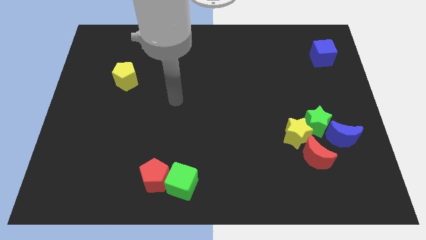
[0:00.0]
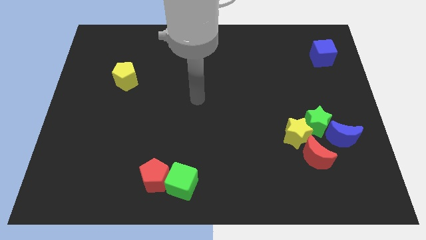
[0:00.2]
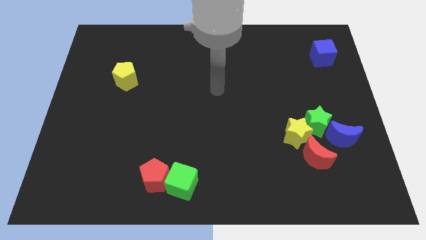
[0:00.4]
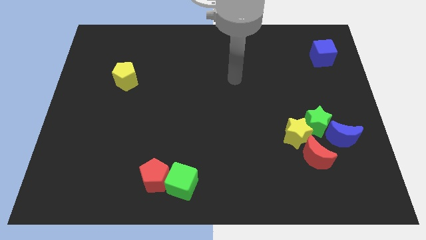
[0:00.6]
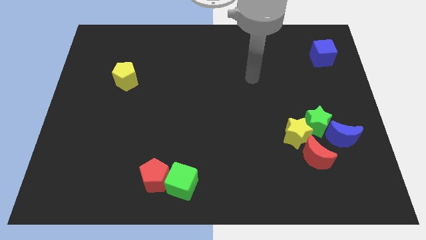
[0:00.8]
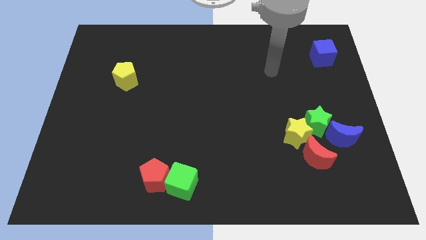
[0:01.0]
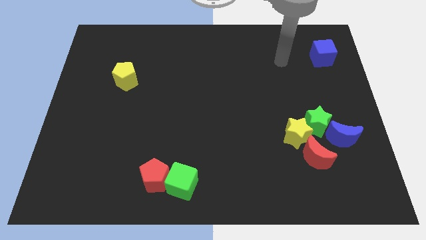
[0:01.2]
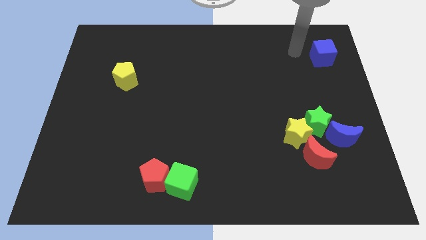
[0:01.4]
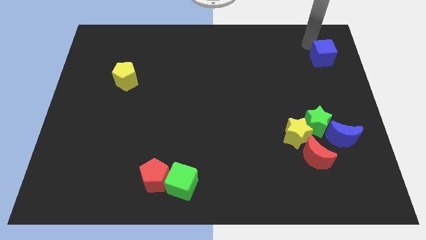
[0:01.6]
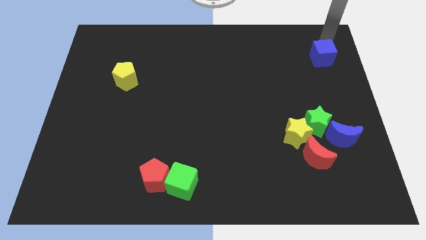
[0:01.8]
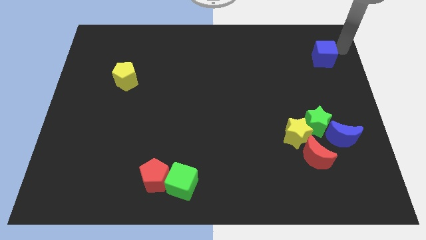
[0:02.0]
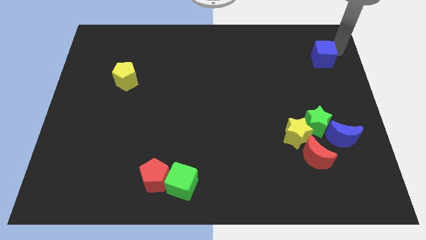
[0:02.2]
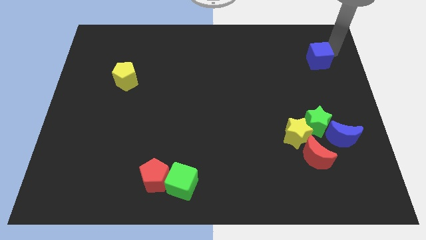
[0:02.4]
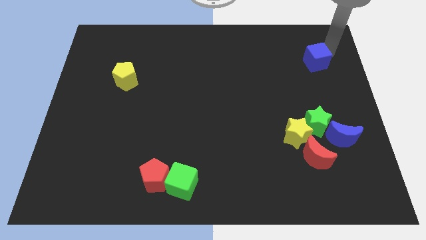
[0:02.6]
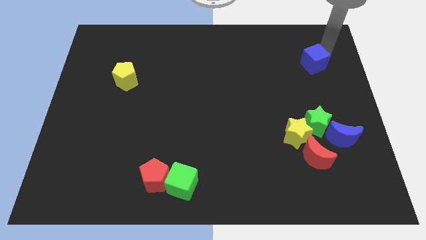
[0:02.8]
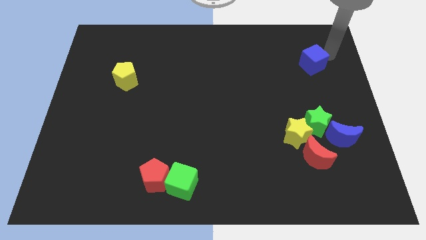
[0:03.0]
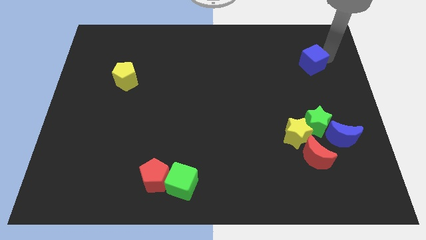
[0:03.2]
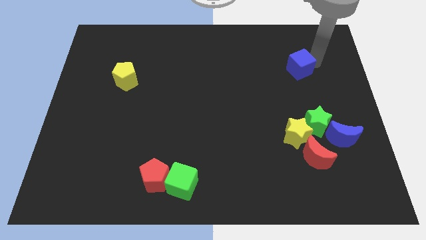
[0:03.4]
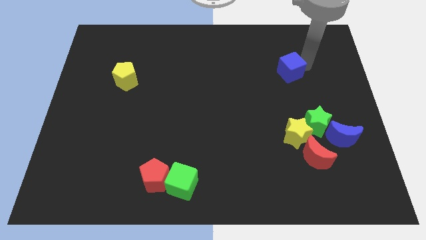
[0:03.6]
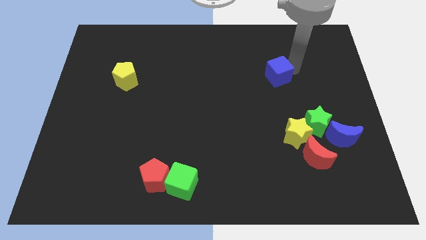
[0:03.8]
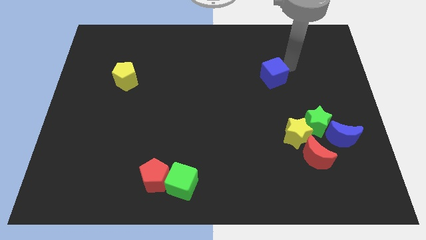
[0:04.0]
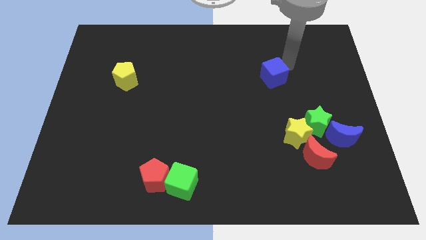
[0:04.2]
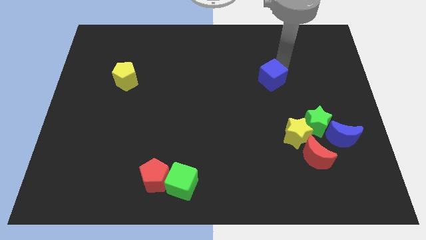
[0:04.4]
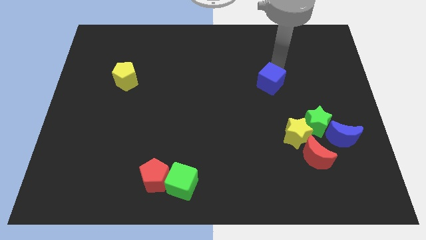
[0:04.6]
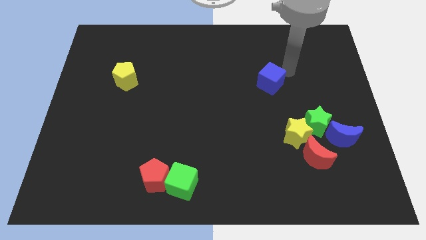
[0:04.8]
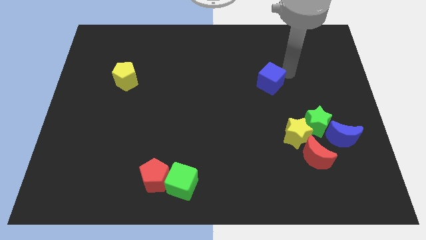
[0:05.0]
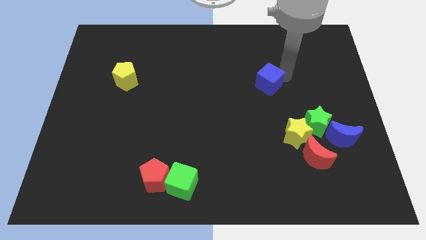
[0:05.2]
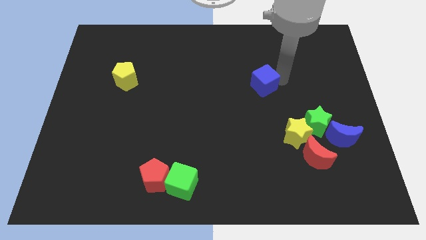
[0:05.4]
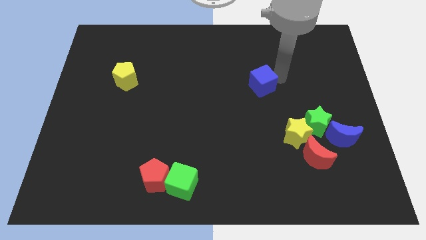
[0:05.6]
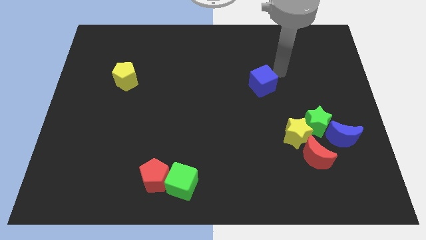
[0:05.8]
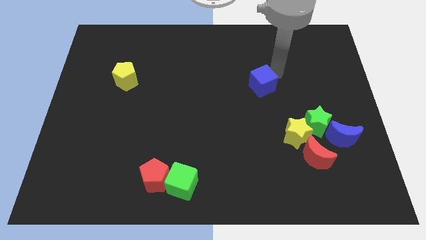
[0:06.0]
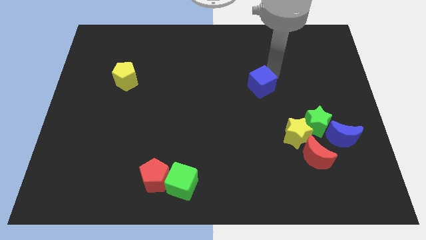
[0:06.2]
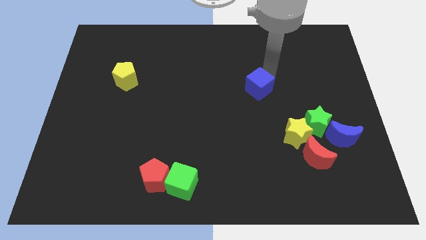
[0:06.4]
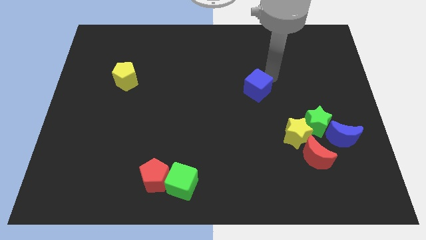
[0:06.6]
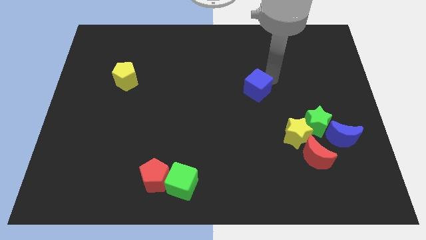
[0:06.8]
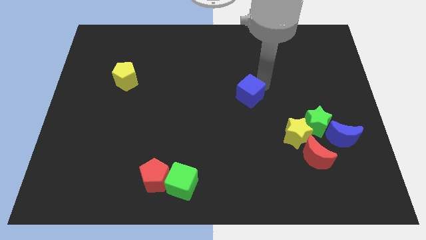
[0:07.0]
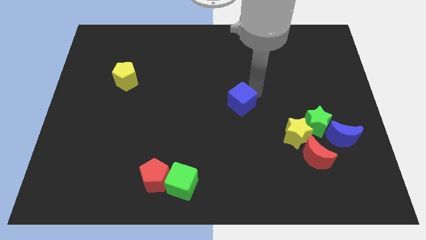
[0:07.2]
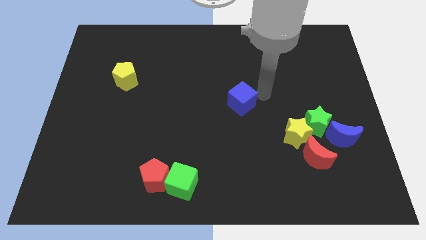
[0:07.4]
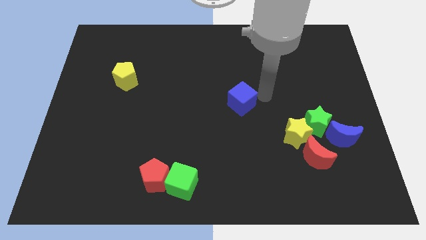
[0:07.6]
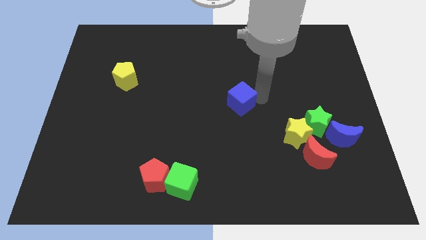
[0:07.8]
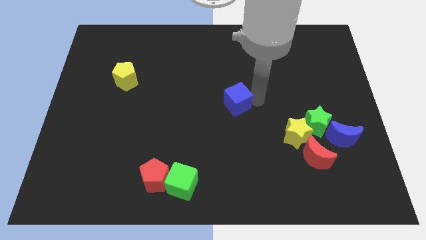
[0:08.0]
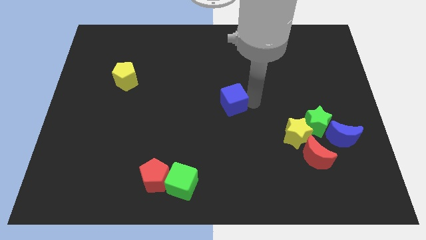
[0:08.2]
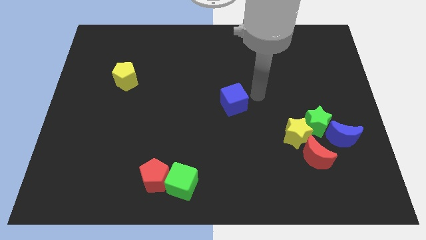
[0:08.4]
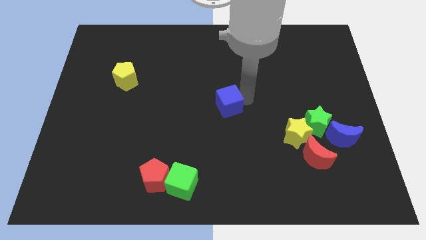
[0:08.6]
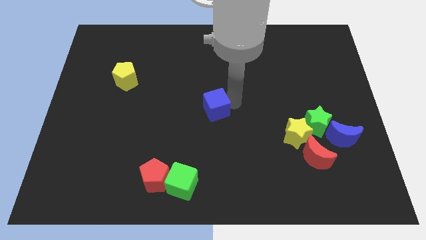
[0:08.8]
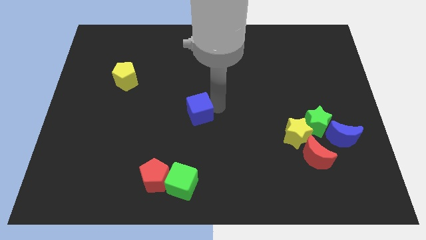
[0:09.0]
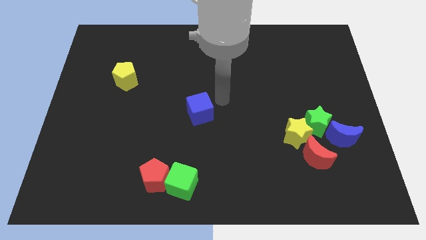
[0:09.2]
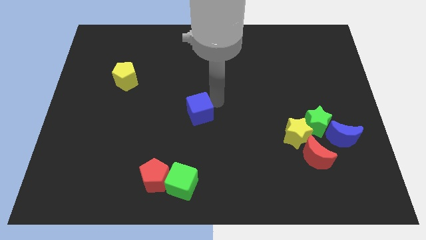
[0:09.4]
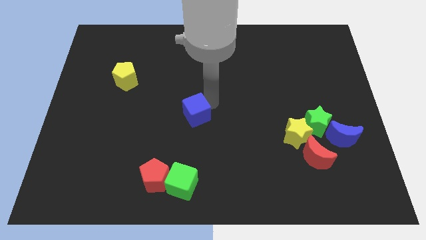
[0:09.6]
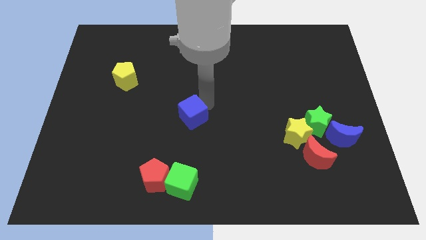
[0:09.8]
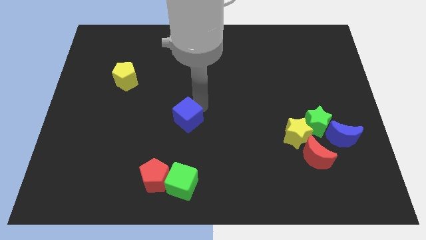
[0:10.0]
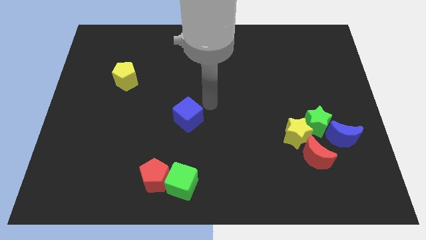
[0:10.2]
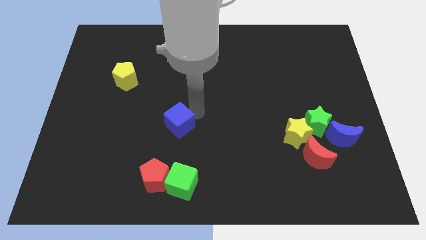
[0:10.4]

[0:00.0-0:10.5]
push the blue cube above the red pentagon

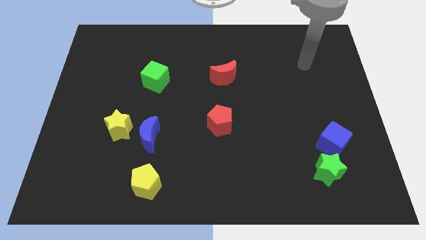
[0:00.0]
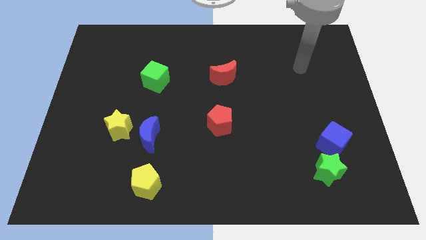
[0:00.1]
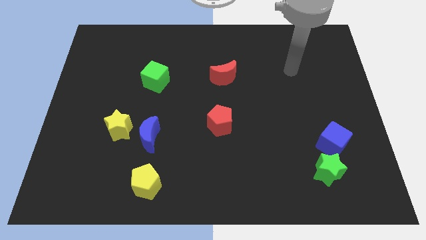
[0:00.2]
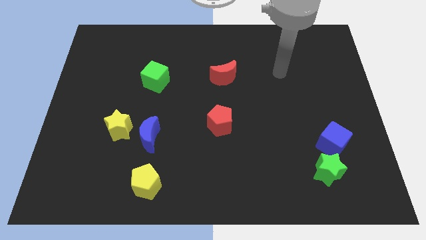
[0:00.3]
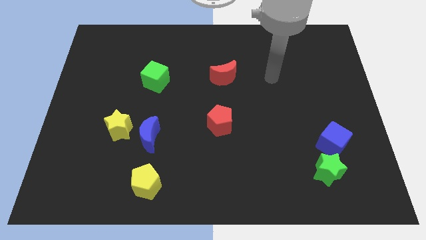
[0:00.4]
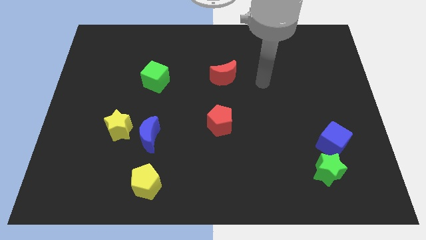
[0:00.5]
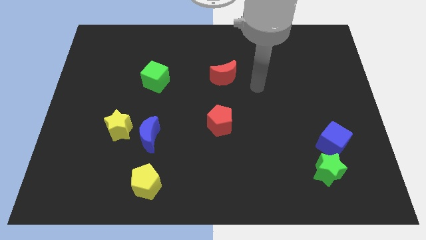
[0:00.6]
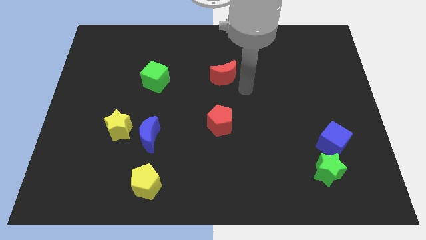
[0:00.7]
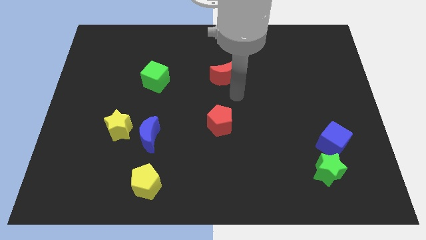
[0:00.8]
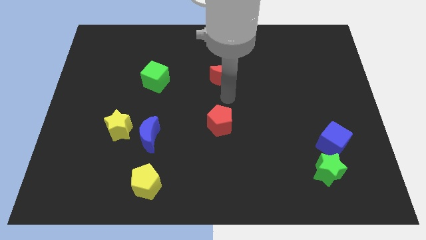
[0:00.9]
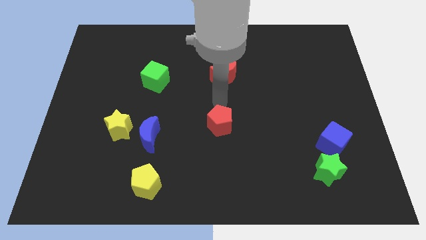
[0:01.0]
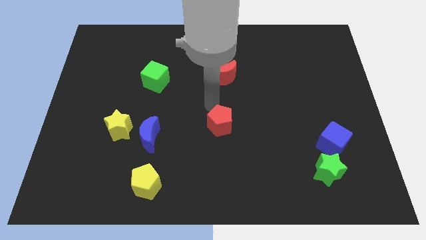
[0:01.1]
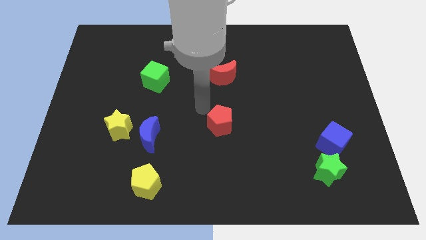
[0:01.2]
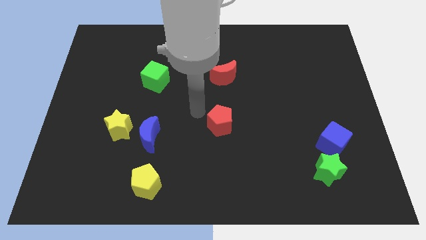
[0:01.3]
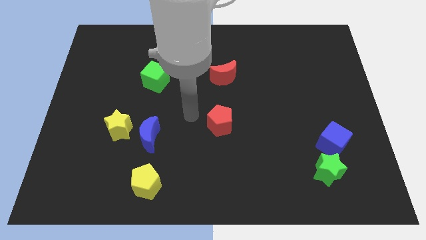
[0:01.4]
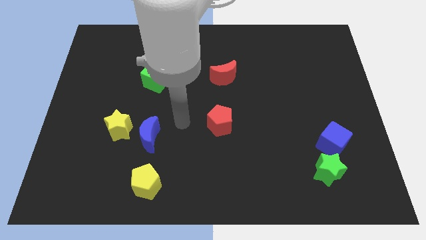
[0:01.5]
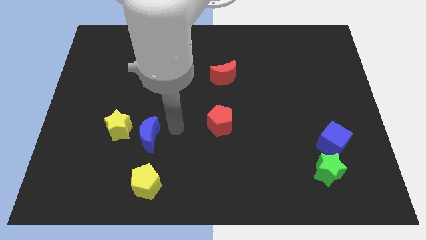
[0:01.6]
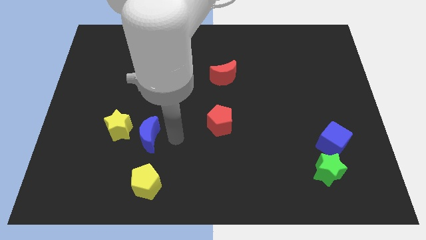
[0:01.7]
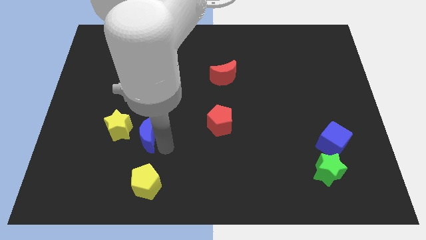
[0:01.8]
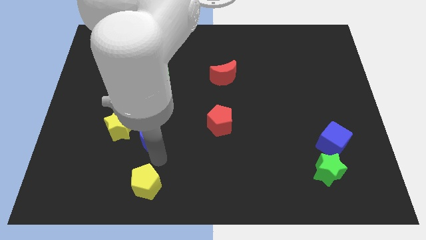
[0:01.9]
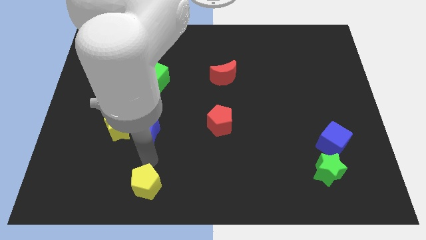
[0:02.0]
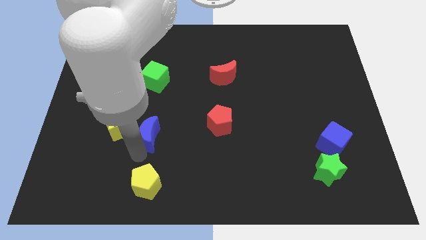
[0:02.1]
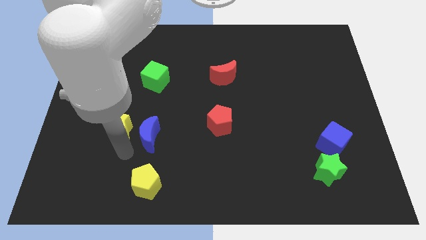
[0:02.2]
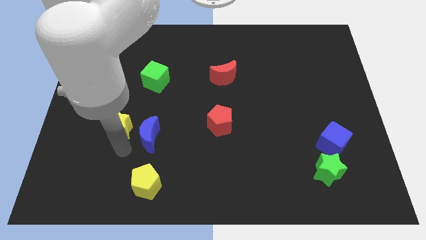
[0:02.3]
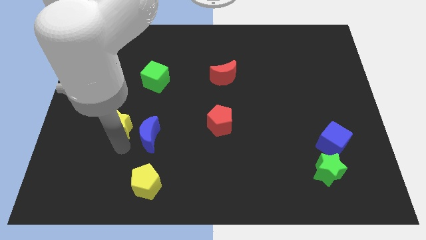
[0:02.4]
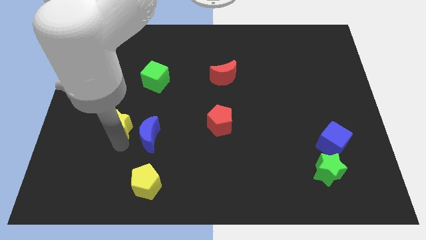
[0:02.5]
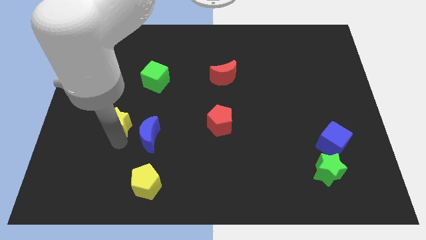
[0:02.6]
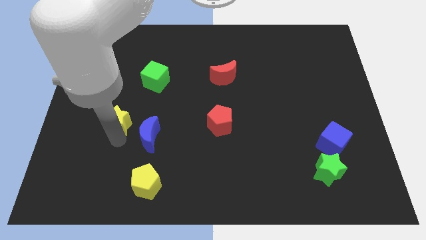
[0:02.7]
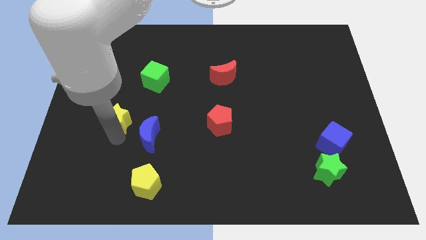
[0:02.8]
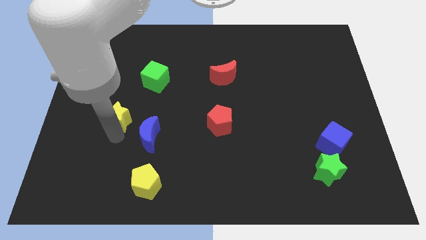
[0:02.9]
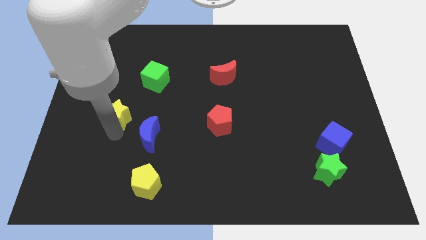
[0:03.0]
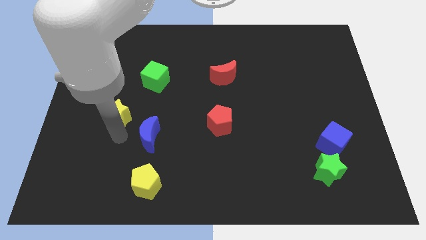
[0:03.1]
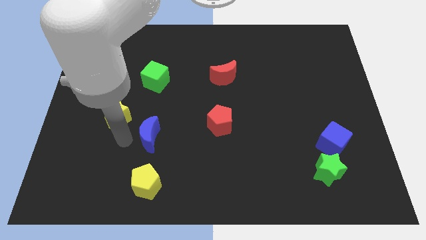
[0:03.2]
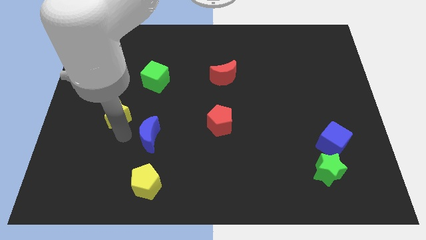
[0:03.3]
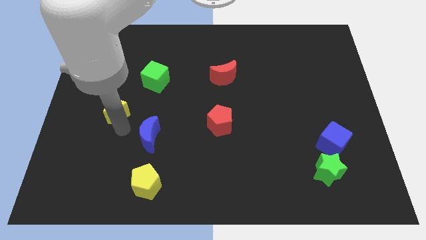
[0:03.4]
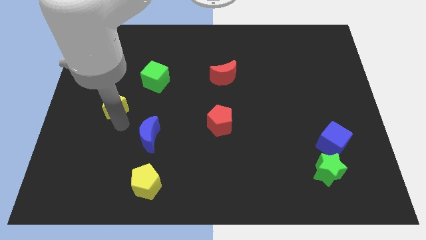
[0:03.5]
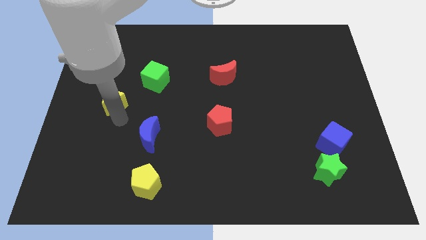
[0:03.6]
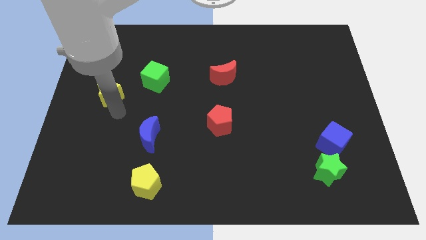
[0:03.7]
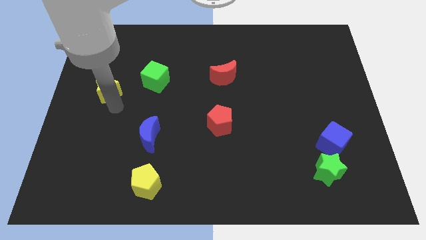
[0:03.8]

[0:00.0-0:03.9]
move the yellow star to the left of the green cube
